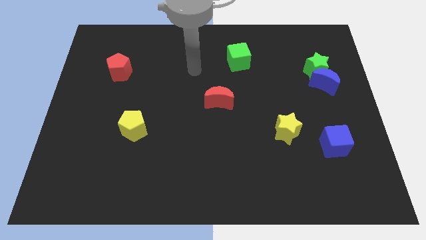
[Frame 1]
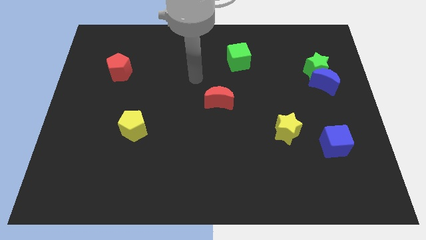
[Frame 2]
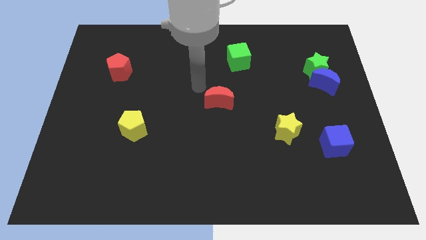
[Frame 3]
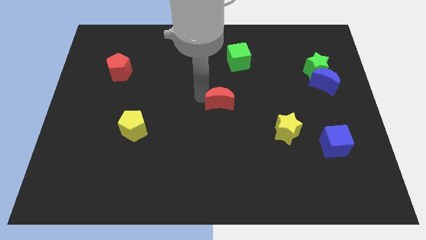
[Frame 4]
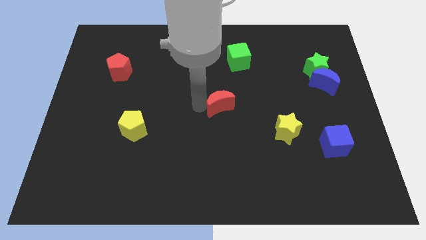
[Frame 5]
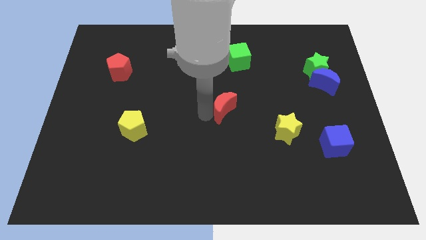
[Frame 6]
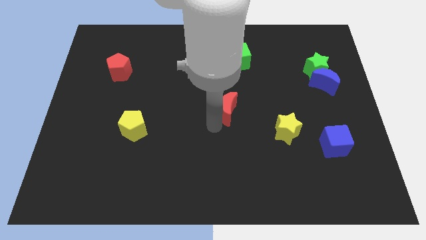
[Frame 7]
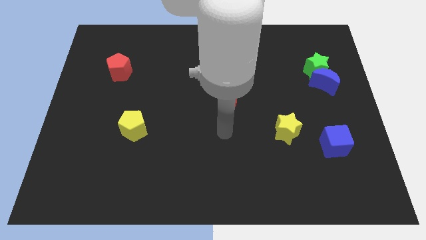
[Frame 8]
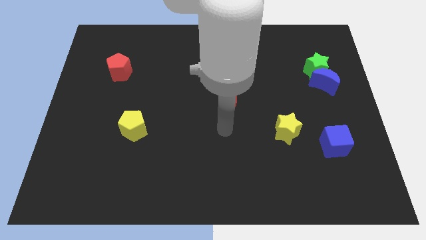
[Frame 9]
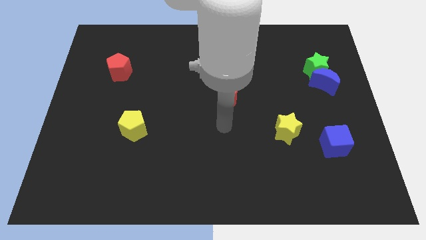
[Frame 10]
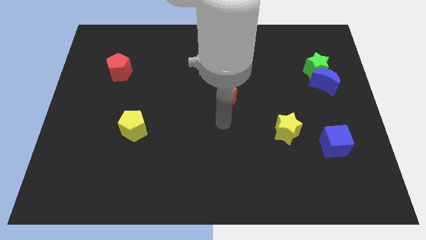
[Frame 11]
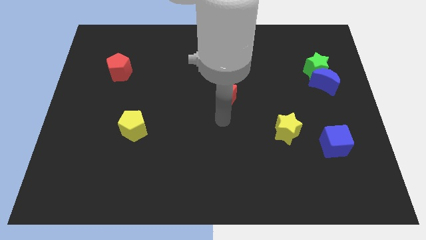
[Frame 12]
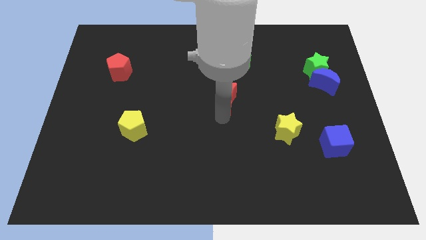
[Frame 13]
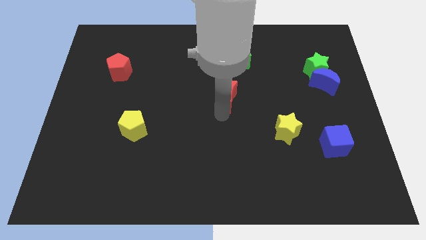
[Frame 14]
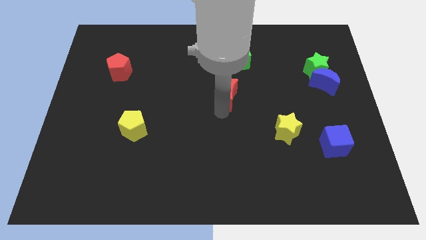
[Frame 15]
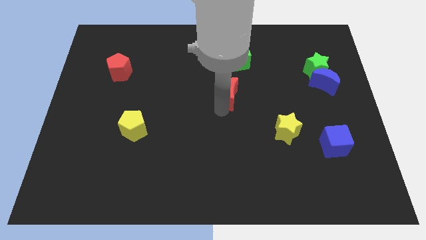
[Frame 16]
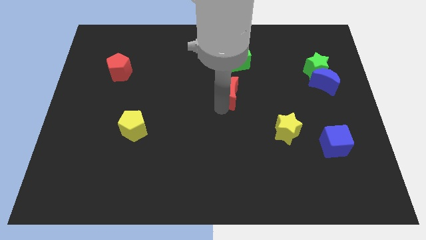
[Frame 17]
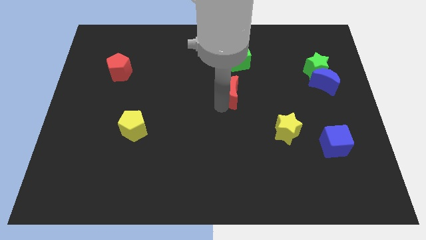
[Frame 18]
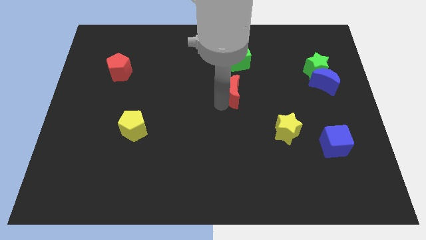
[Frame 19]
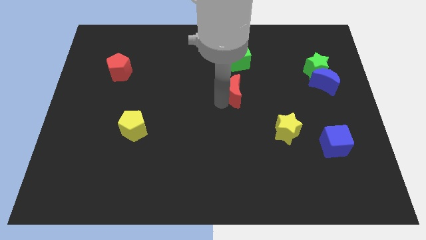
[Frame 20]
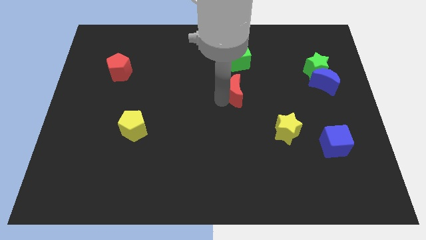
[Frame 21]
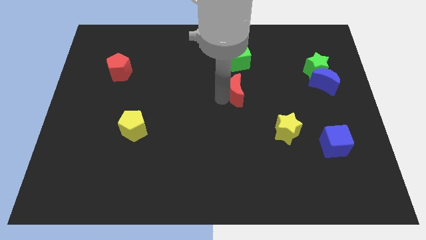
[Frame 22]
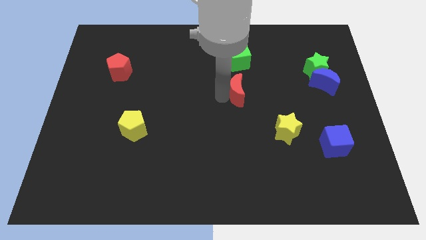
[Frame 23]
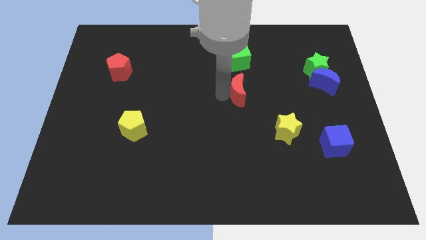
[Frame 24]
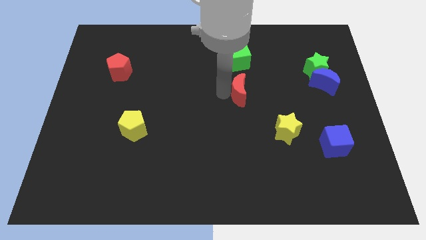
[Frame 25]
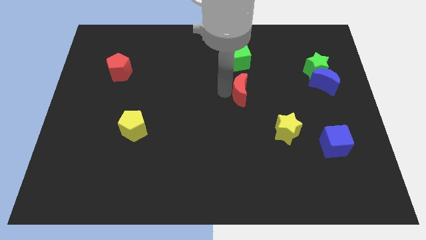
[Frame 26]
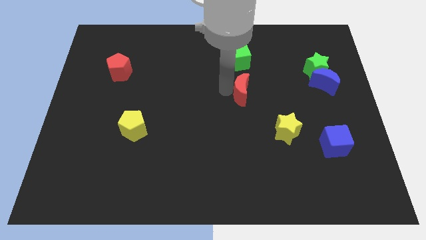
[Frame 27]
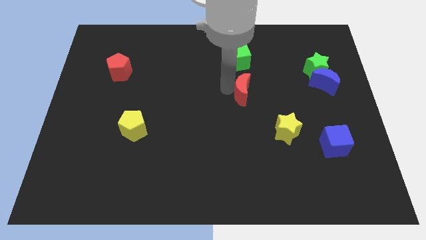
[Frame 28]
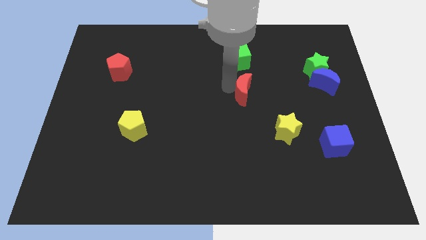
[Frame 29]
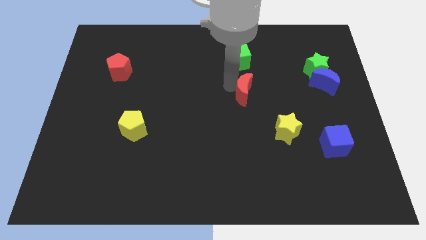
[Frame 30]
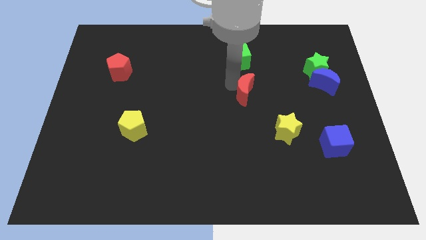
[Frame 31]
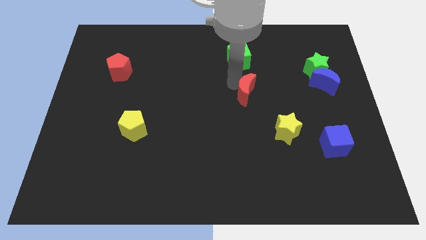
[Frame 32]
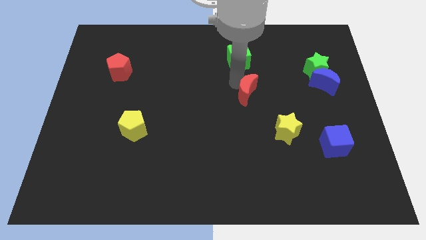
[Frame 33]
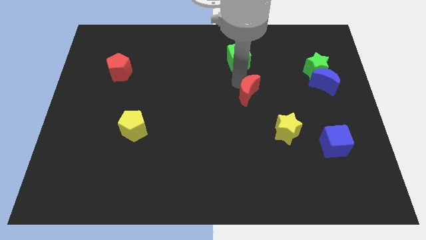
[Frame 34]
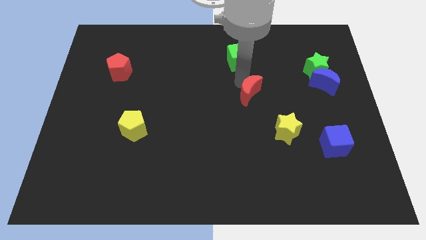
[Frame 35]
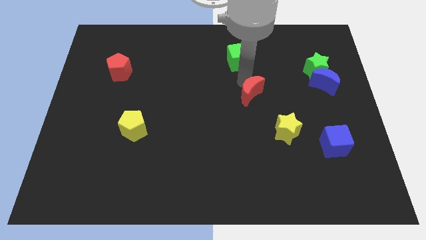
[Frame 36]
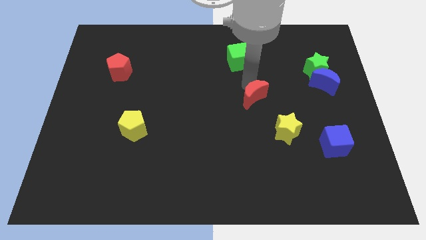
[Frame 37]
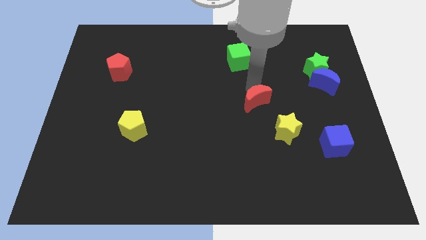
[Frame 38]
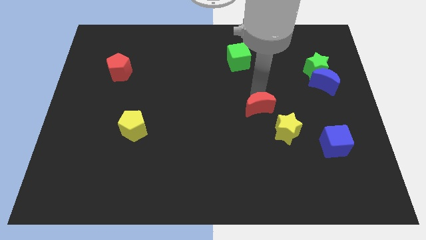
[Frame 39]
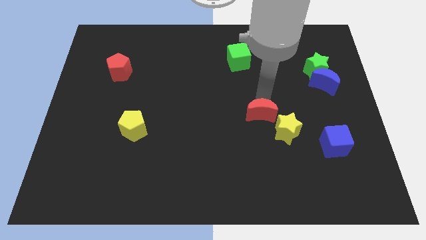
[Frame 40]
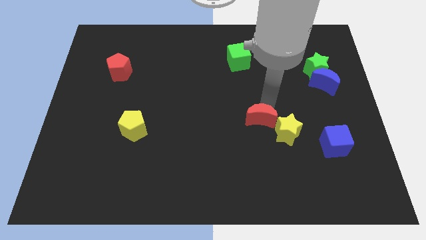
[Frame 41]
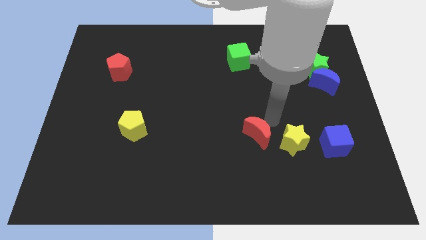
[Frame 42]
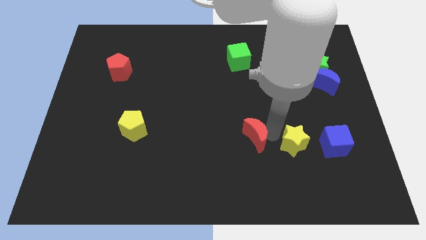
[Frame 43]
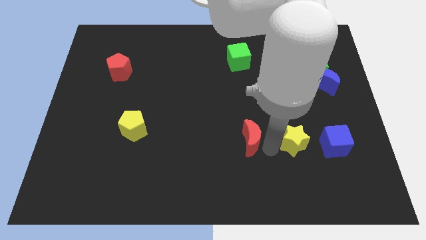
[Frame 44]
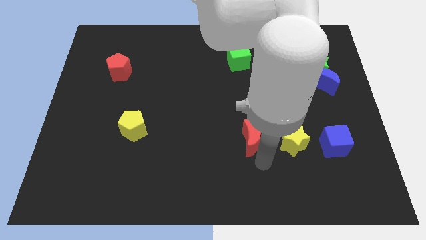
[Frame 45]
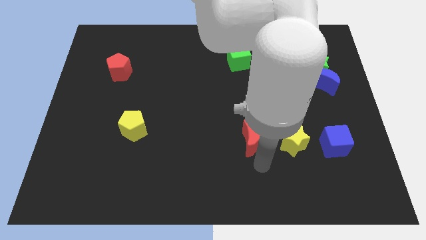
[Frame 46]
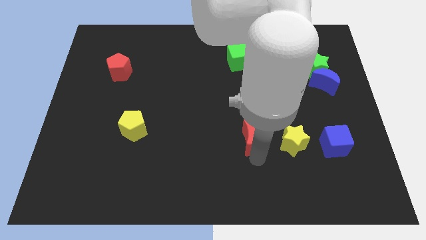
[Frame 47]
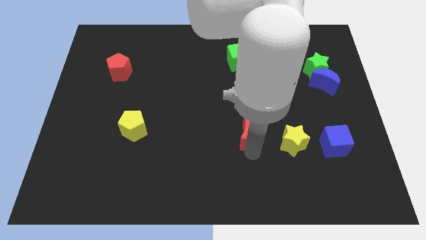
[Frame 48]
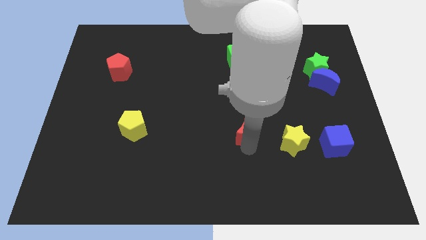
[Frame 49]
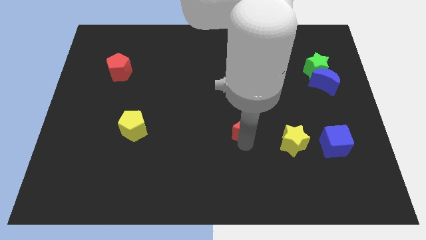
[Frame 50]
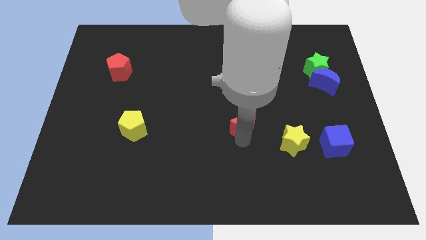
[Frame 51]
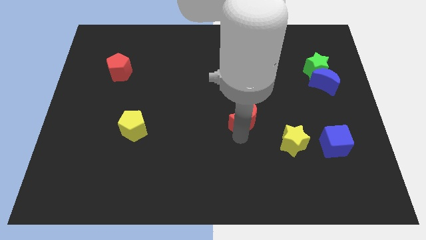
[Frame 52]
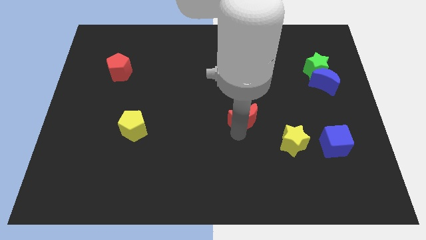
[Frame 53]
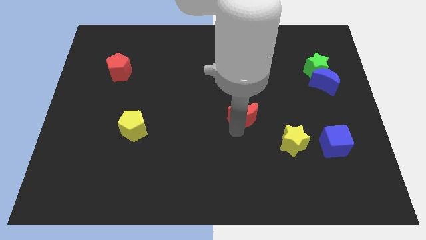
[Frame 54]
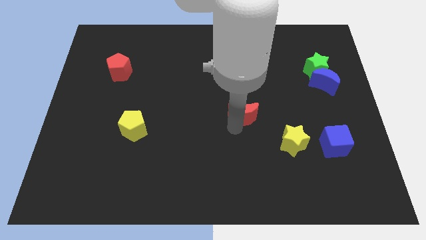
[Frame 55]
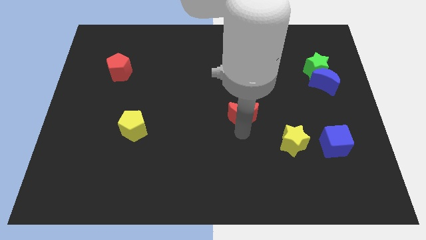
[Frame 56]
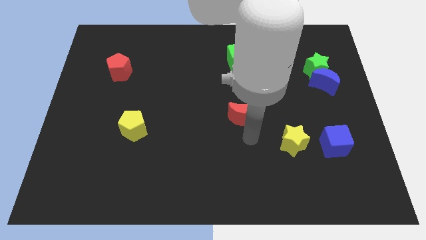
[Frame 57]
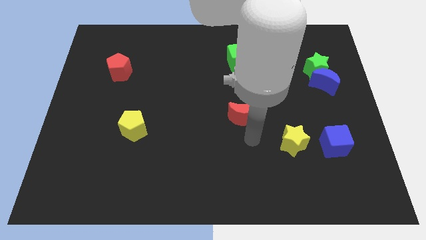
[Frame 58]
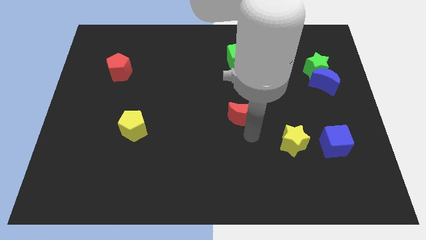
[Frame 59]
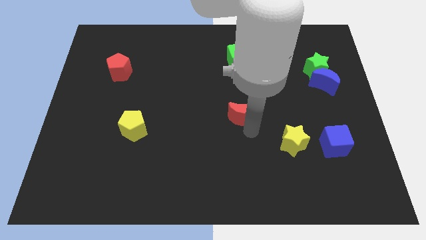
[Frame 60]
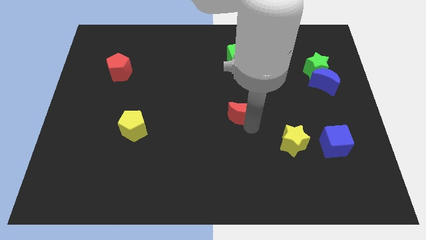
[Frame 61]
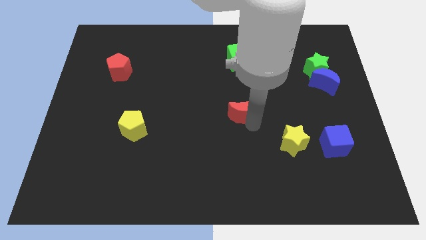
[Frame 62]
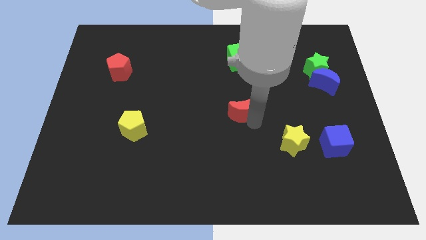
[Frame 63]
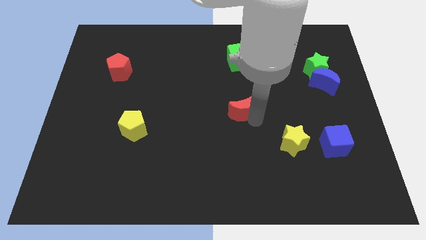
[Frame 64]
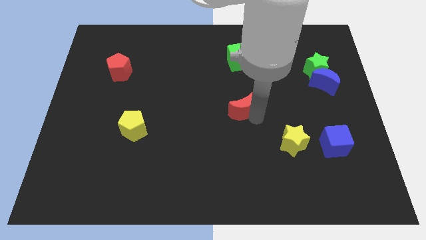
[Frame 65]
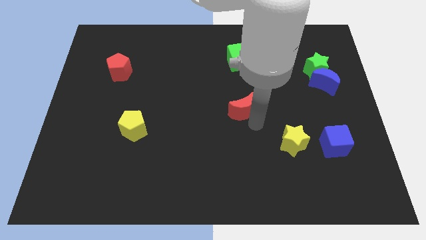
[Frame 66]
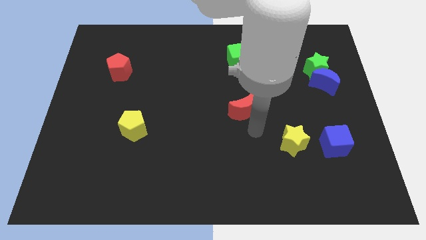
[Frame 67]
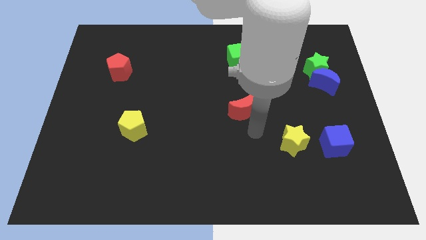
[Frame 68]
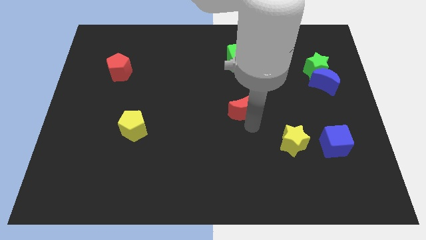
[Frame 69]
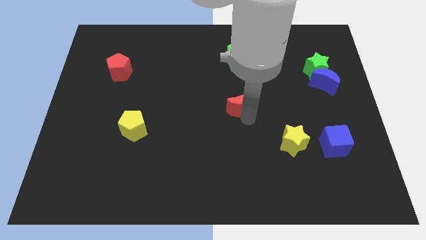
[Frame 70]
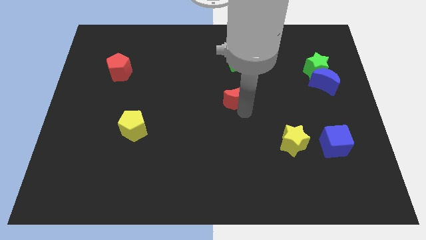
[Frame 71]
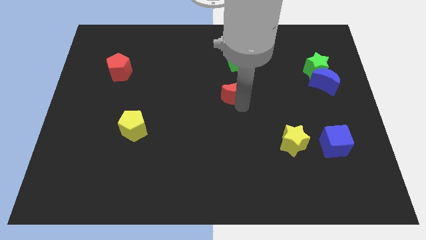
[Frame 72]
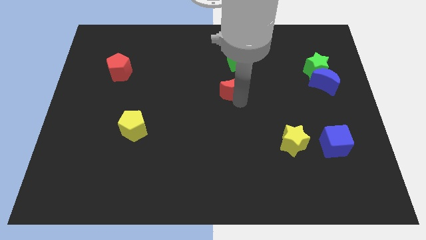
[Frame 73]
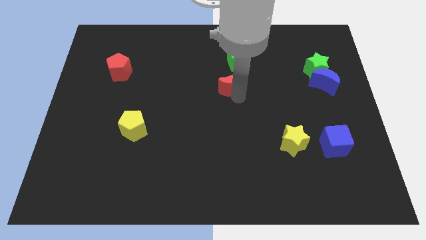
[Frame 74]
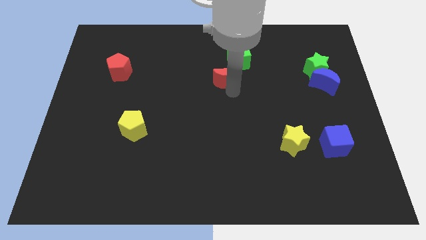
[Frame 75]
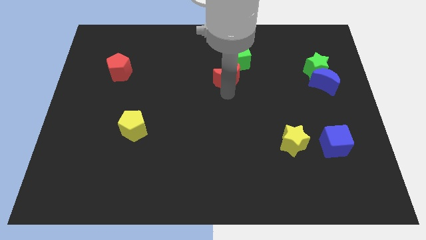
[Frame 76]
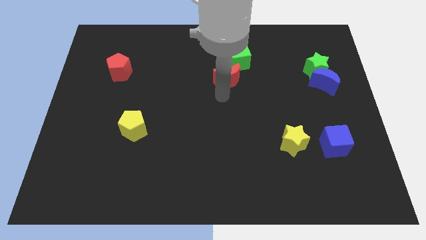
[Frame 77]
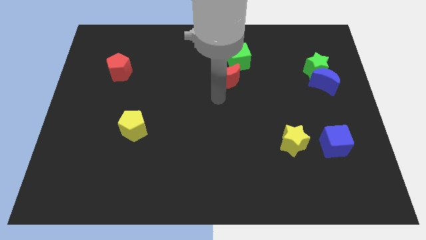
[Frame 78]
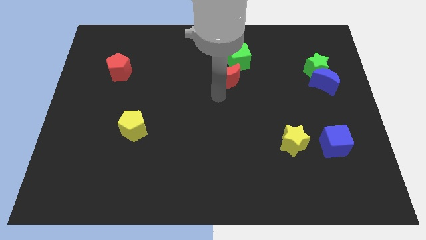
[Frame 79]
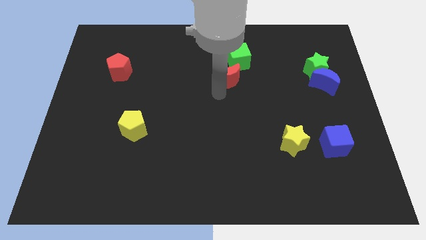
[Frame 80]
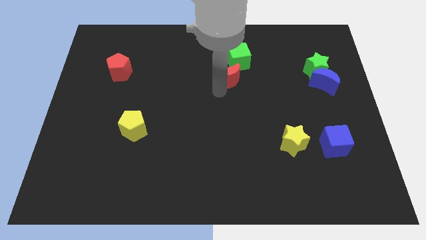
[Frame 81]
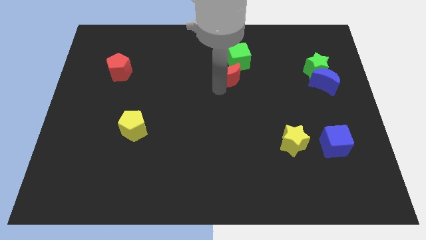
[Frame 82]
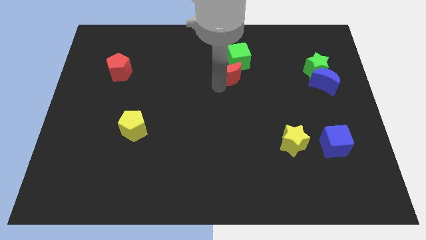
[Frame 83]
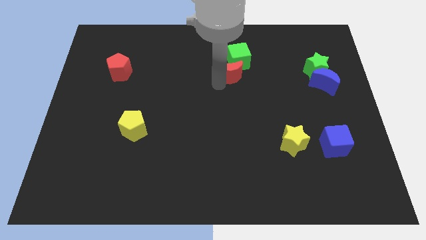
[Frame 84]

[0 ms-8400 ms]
move the red moon towards the green cube
